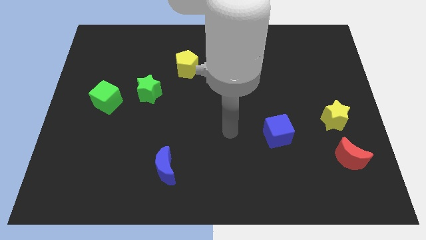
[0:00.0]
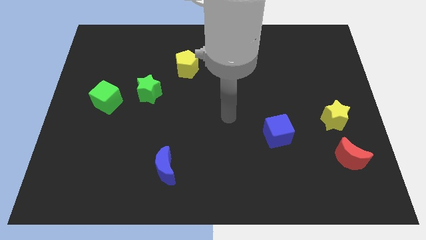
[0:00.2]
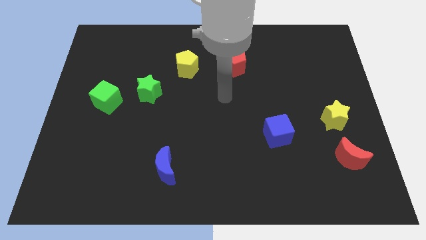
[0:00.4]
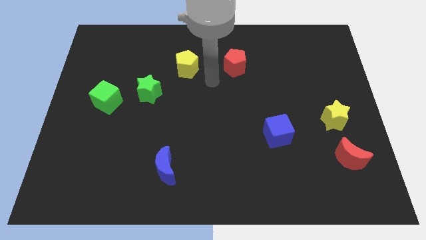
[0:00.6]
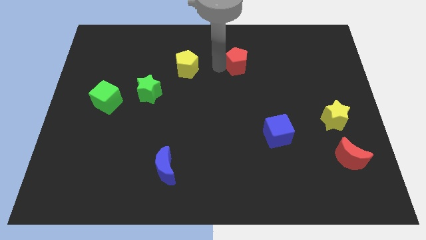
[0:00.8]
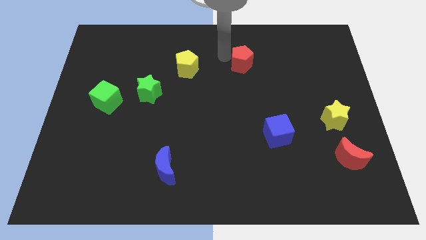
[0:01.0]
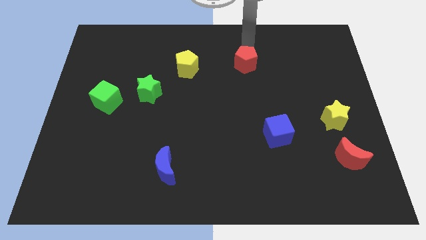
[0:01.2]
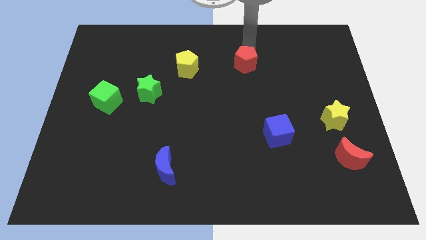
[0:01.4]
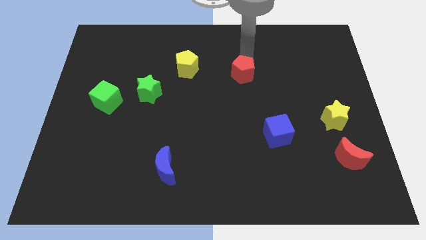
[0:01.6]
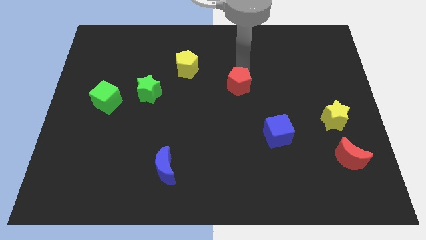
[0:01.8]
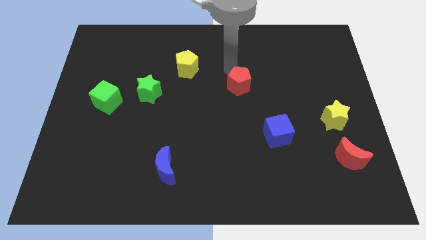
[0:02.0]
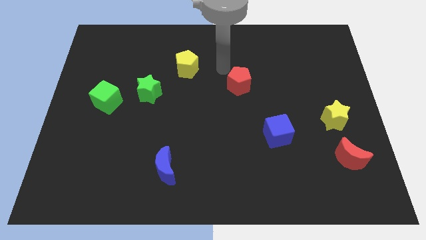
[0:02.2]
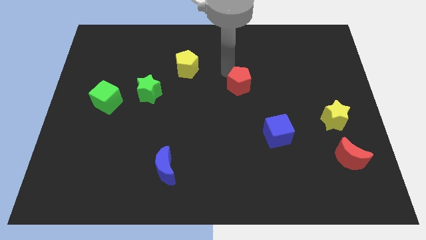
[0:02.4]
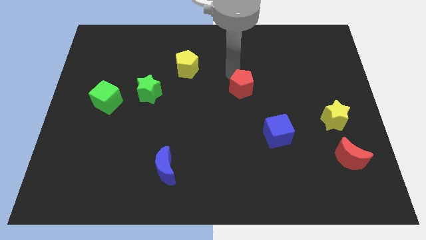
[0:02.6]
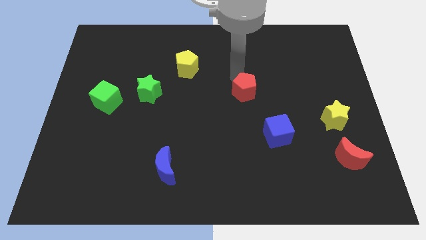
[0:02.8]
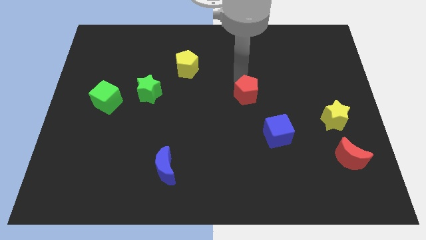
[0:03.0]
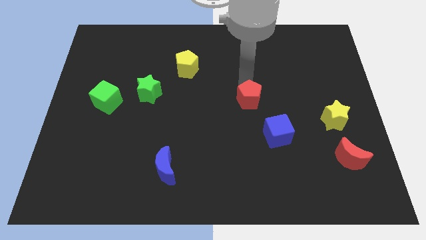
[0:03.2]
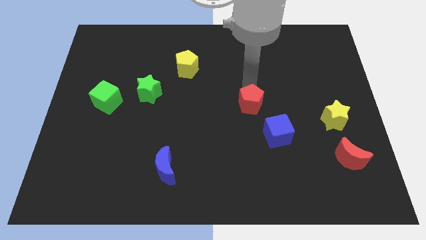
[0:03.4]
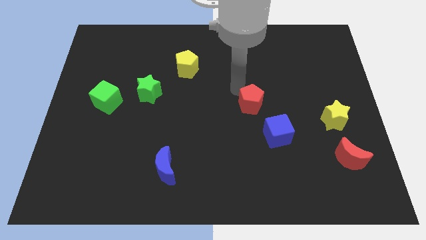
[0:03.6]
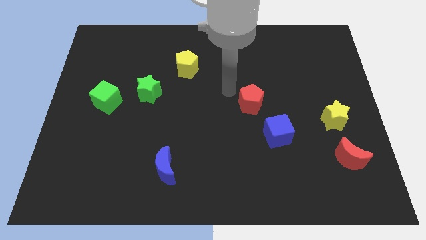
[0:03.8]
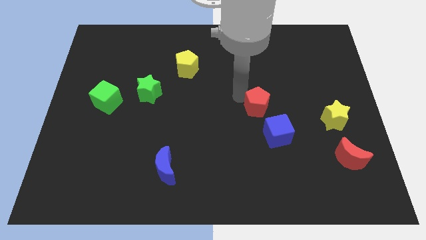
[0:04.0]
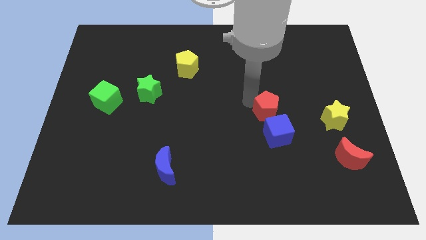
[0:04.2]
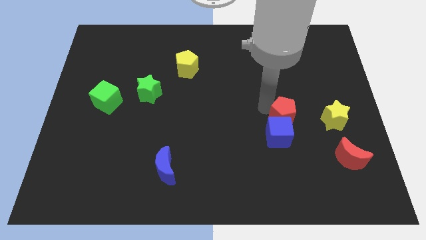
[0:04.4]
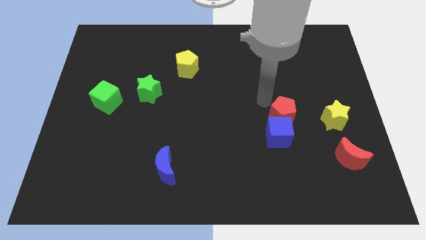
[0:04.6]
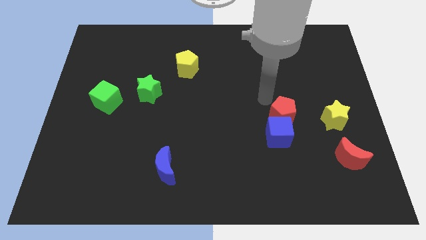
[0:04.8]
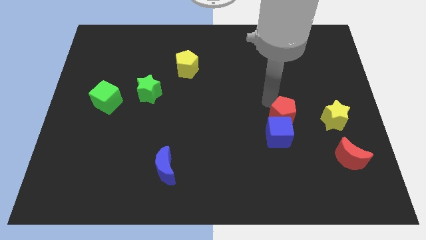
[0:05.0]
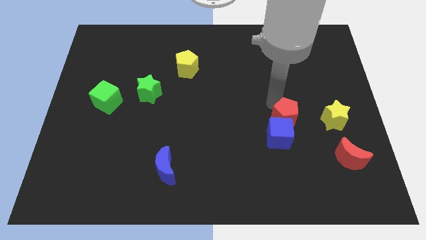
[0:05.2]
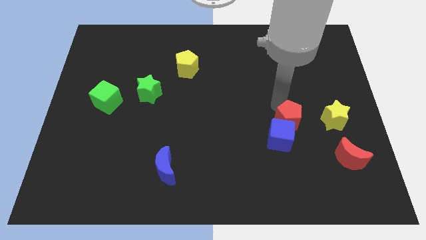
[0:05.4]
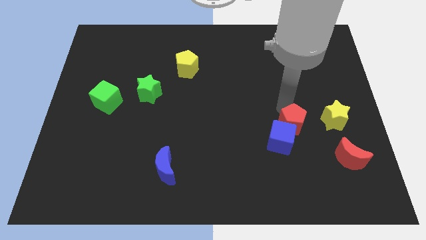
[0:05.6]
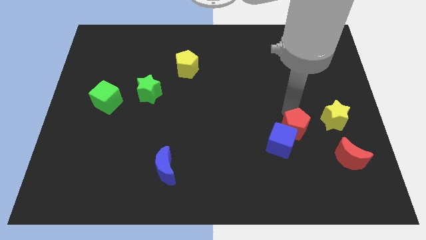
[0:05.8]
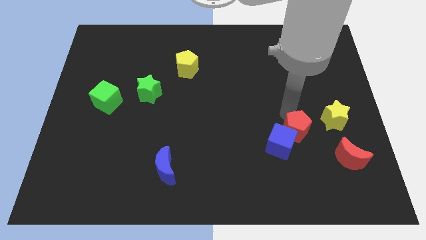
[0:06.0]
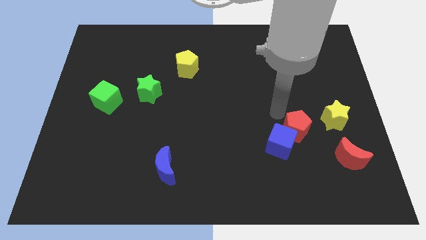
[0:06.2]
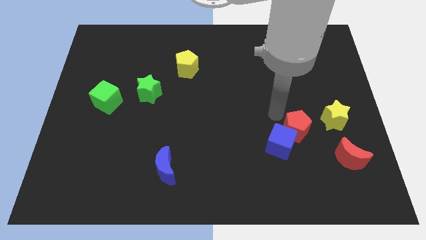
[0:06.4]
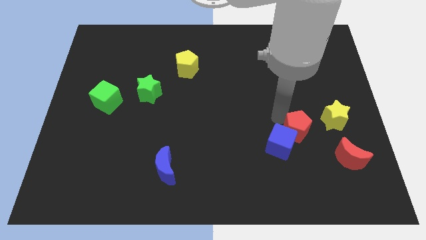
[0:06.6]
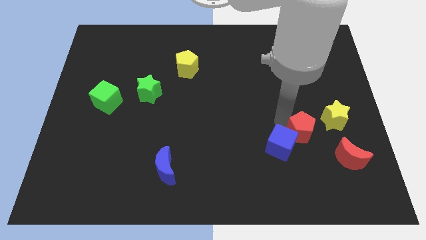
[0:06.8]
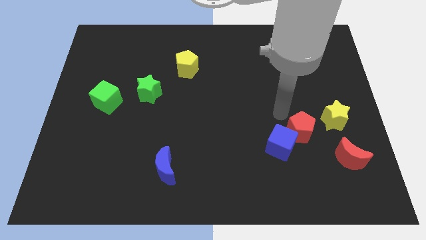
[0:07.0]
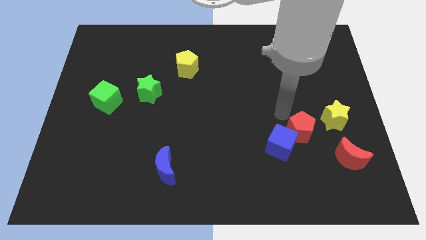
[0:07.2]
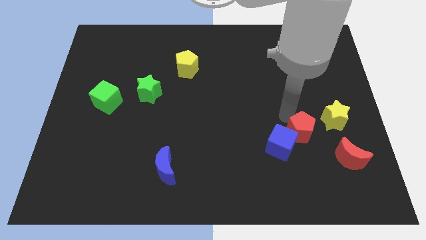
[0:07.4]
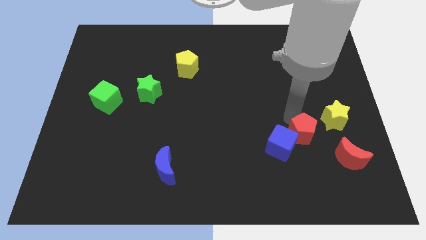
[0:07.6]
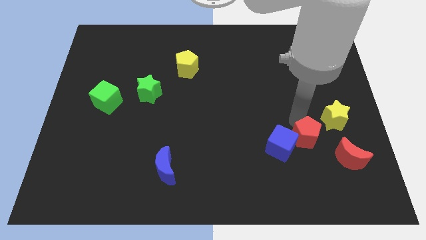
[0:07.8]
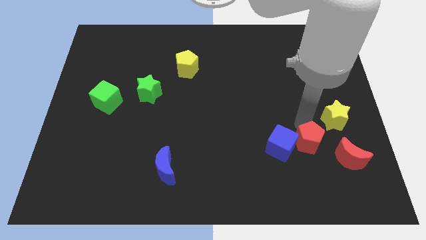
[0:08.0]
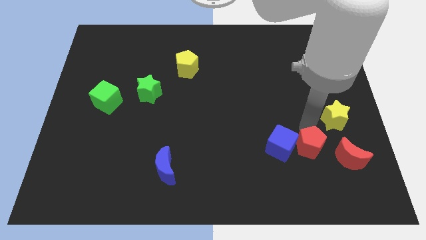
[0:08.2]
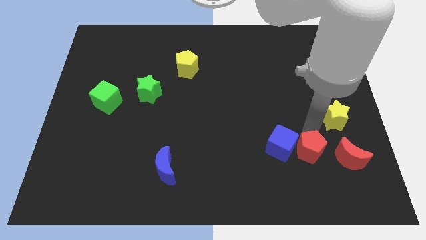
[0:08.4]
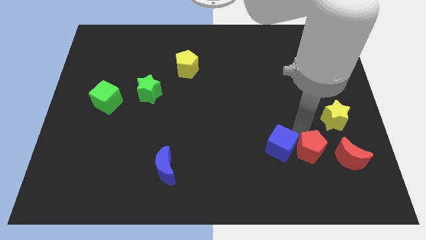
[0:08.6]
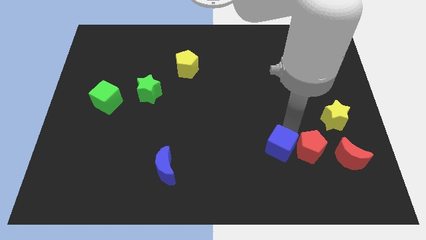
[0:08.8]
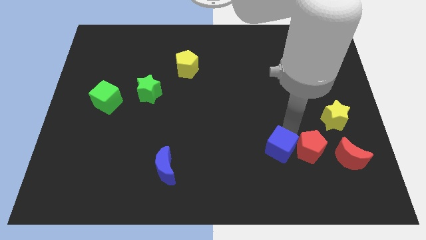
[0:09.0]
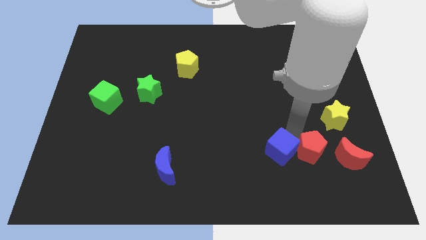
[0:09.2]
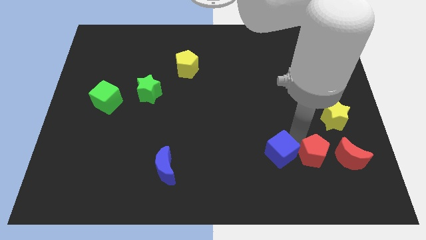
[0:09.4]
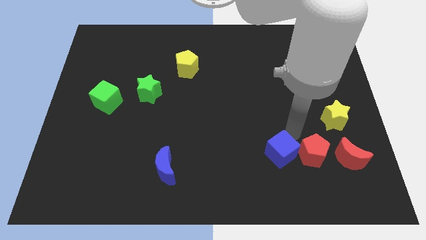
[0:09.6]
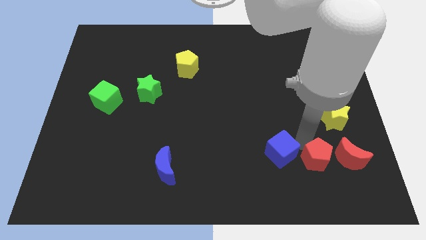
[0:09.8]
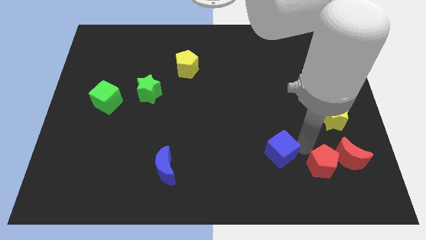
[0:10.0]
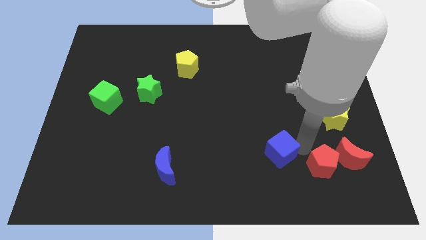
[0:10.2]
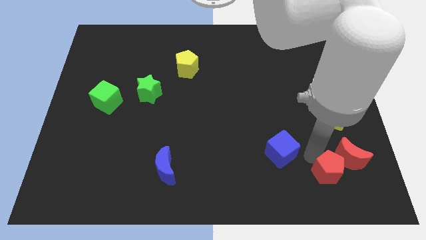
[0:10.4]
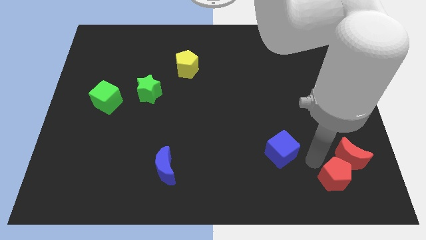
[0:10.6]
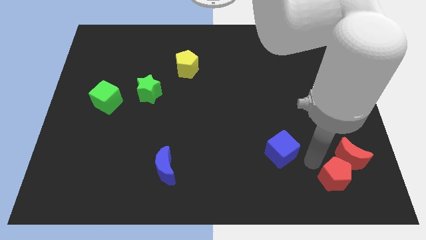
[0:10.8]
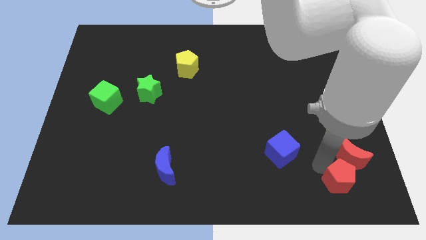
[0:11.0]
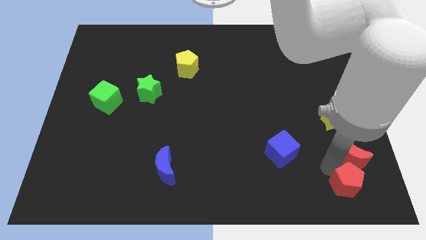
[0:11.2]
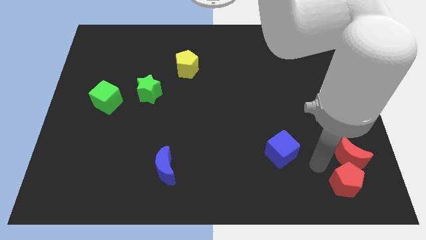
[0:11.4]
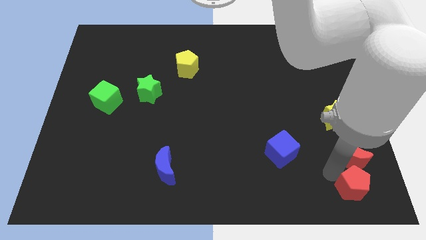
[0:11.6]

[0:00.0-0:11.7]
move the red pentagon to the bottom right corner

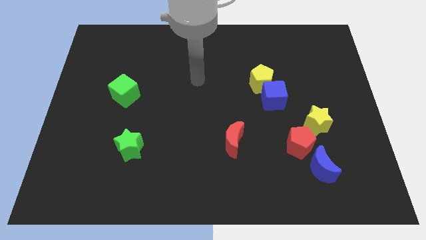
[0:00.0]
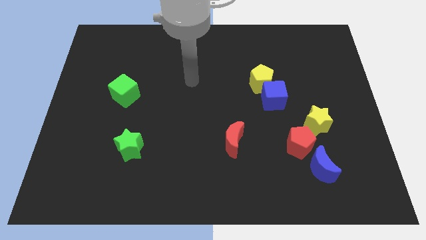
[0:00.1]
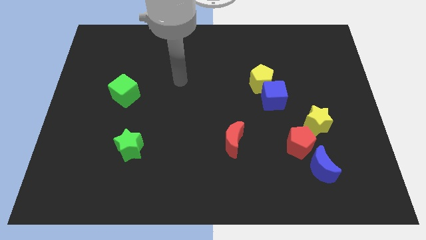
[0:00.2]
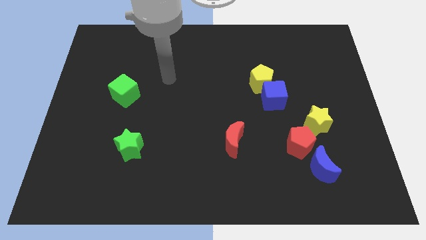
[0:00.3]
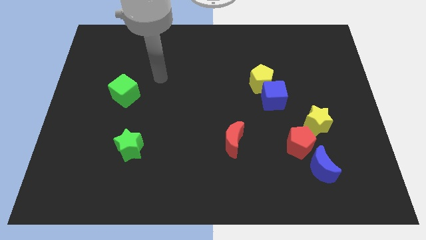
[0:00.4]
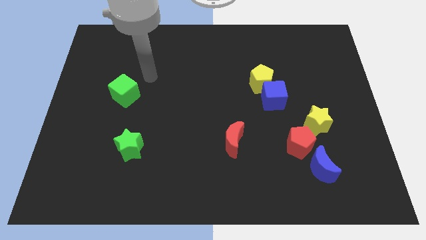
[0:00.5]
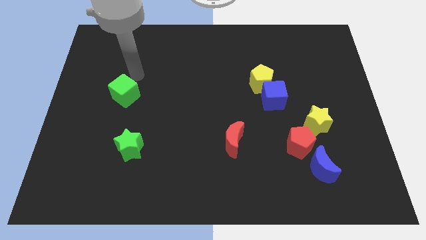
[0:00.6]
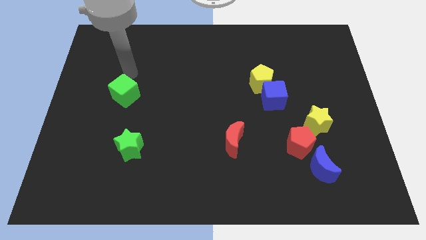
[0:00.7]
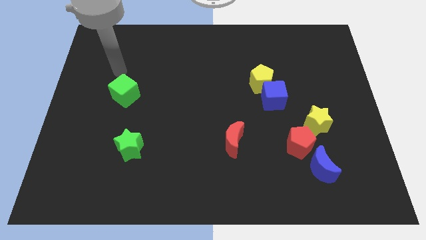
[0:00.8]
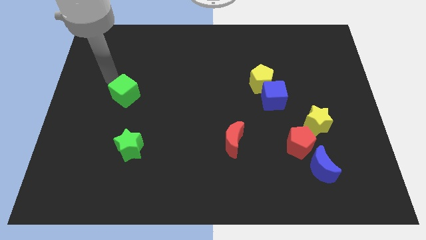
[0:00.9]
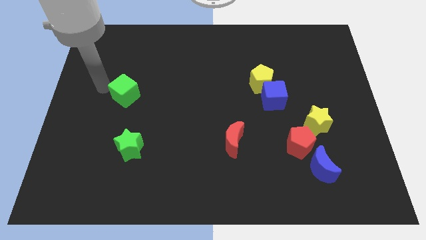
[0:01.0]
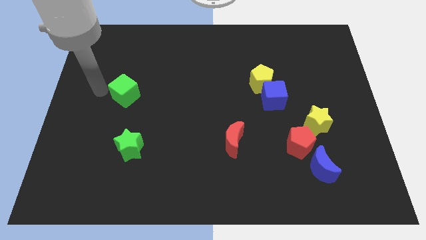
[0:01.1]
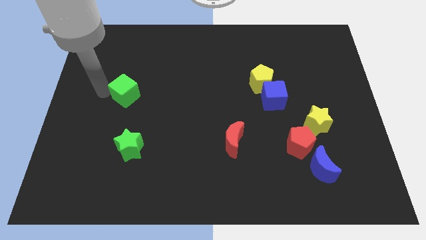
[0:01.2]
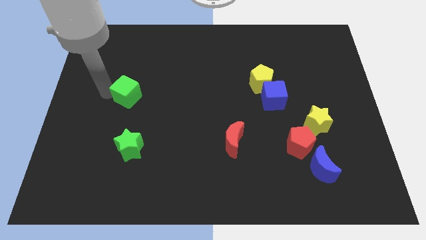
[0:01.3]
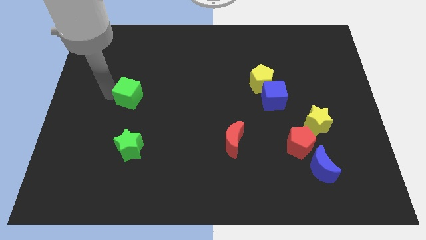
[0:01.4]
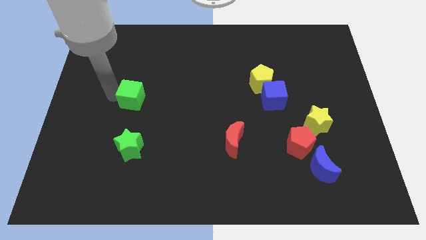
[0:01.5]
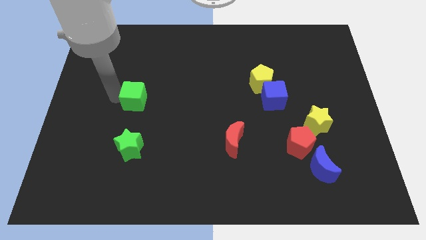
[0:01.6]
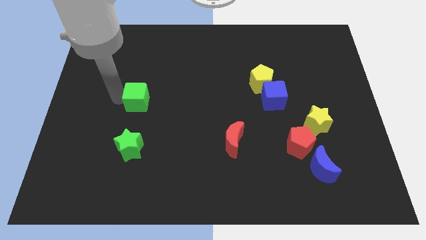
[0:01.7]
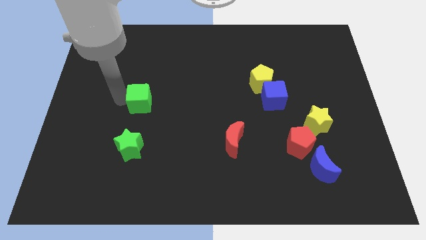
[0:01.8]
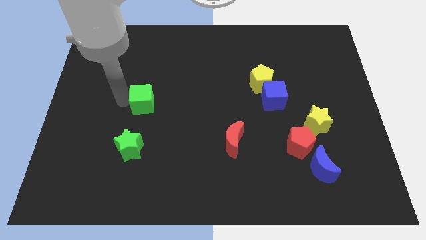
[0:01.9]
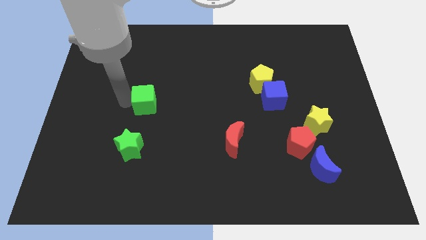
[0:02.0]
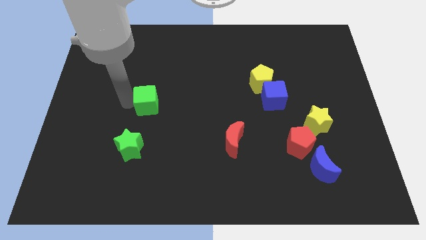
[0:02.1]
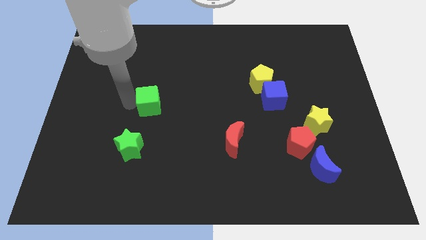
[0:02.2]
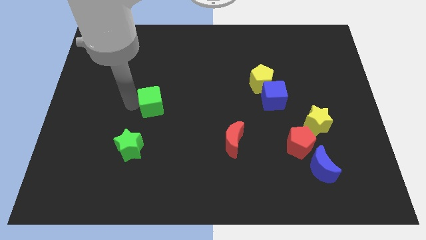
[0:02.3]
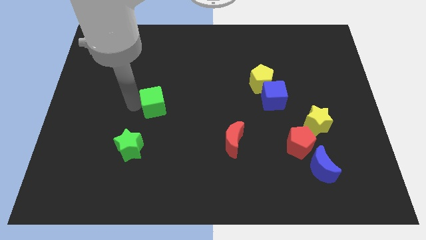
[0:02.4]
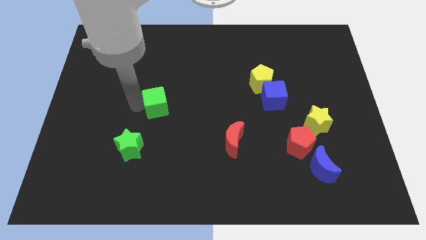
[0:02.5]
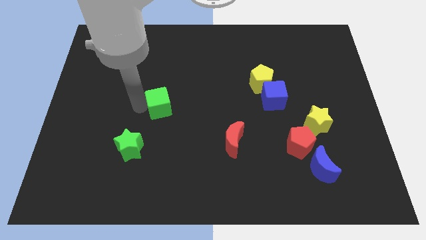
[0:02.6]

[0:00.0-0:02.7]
put the green cube to the middle
